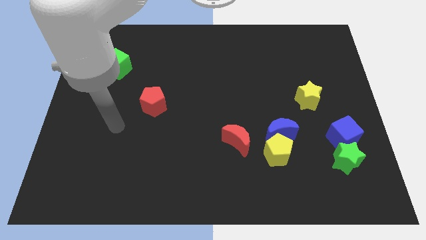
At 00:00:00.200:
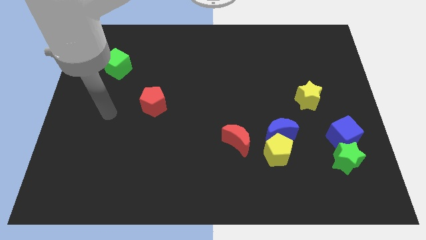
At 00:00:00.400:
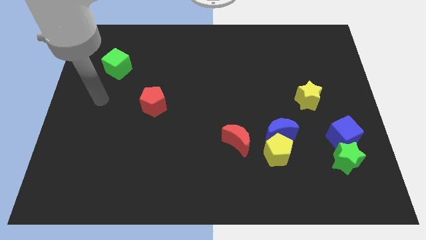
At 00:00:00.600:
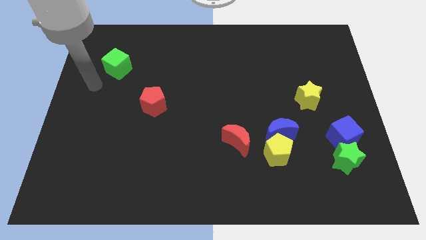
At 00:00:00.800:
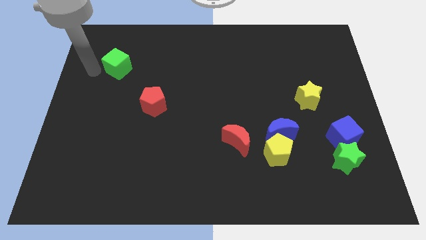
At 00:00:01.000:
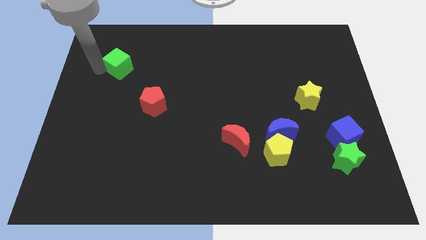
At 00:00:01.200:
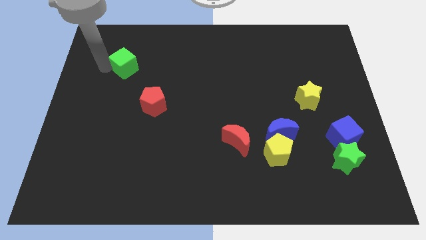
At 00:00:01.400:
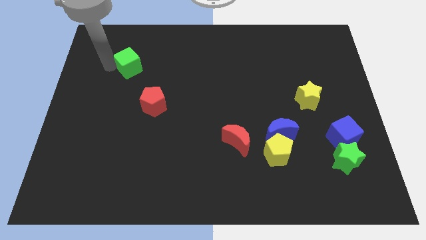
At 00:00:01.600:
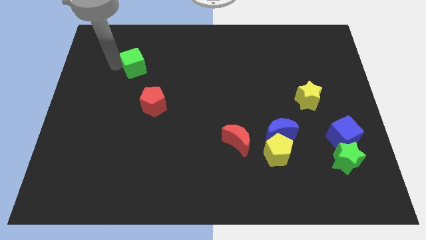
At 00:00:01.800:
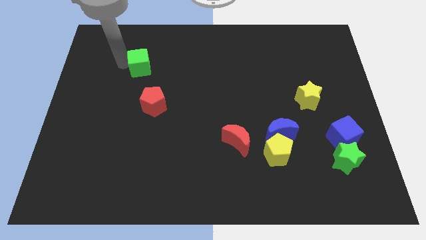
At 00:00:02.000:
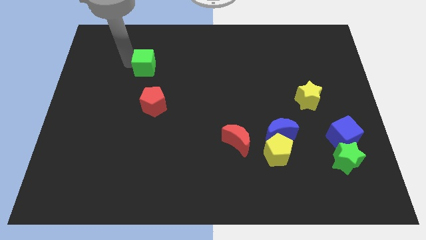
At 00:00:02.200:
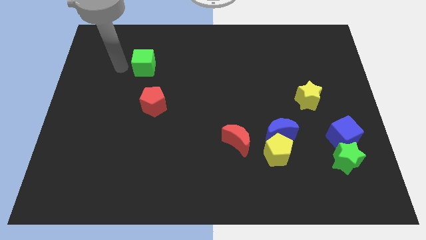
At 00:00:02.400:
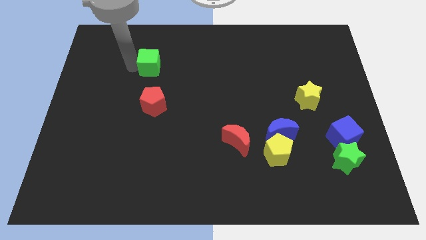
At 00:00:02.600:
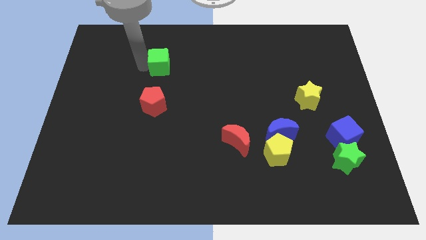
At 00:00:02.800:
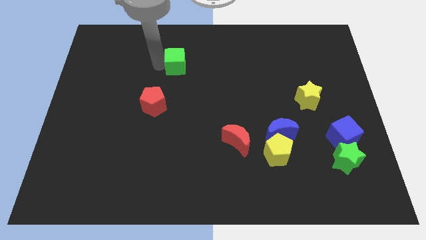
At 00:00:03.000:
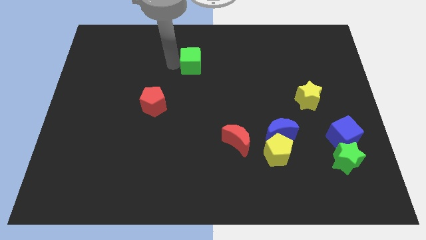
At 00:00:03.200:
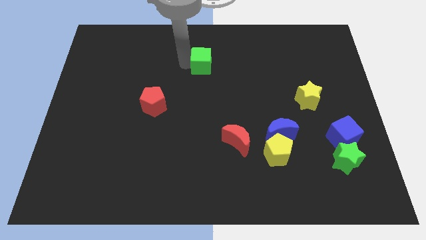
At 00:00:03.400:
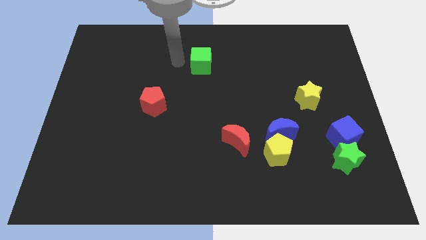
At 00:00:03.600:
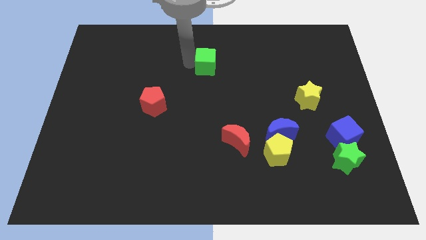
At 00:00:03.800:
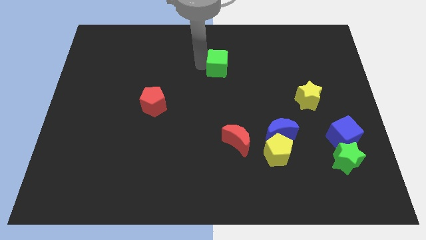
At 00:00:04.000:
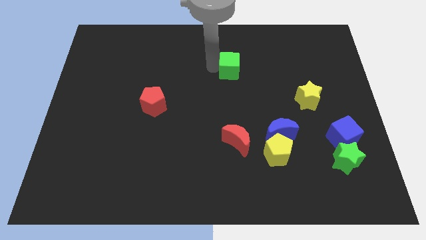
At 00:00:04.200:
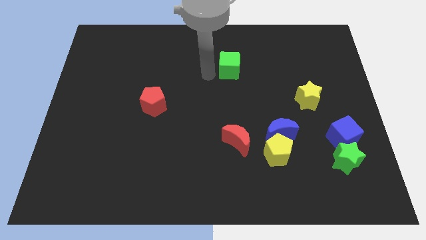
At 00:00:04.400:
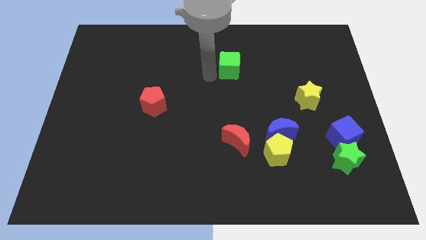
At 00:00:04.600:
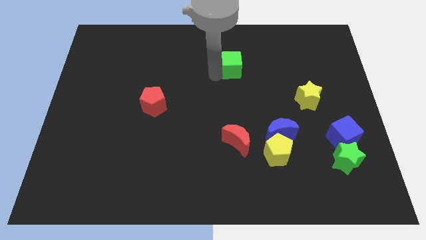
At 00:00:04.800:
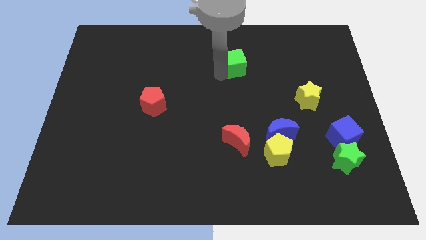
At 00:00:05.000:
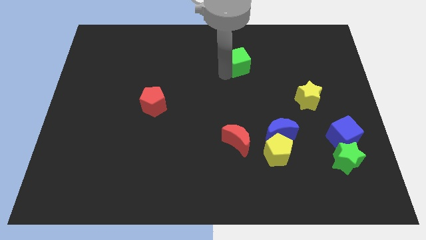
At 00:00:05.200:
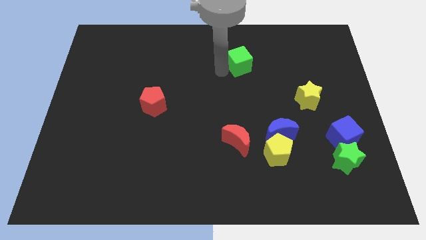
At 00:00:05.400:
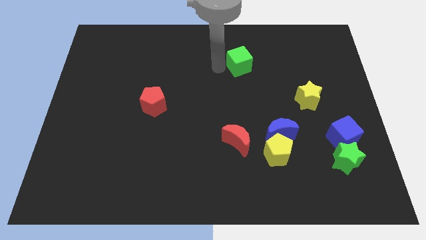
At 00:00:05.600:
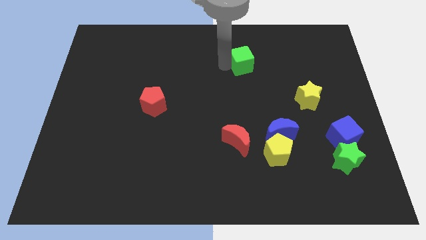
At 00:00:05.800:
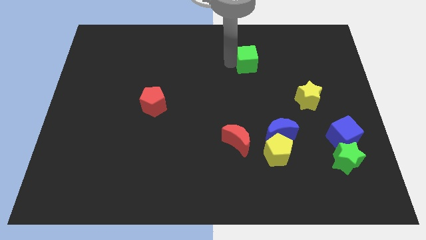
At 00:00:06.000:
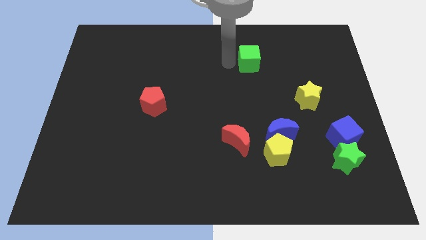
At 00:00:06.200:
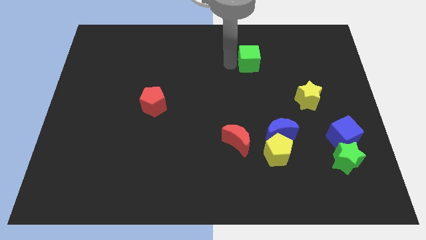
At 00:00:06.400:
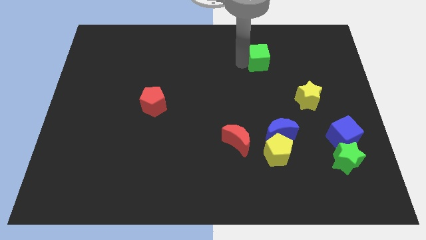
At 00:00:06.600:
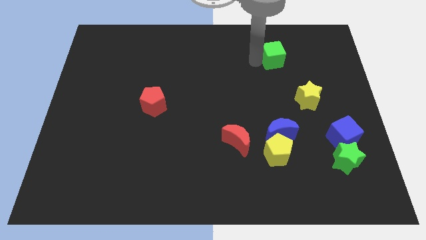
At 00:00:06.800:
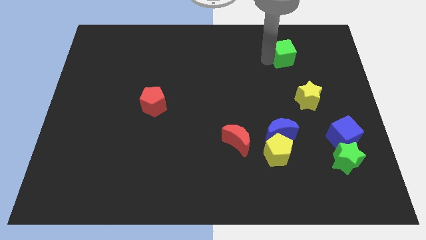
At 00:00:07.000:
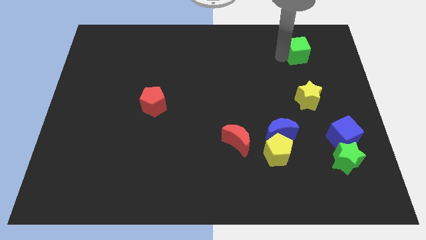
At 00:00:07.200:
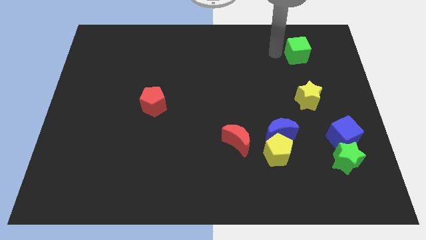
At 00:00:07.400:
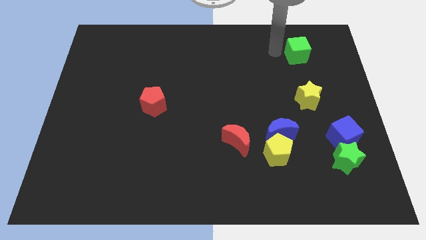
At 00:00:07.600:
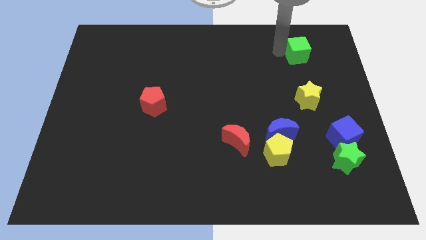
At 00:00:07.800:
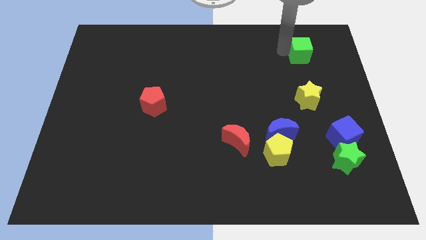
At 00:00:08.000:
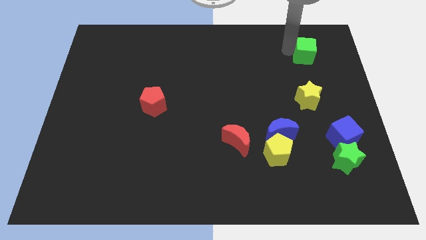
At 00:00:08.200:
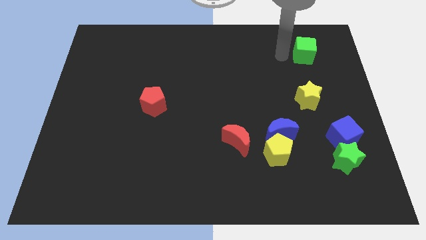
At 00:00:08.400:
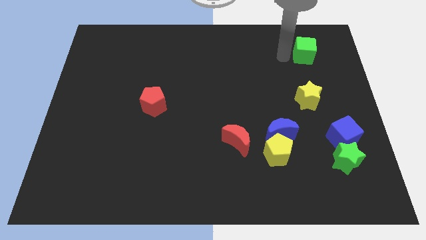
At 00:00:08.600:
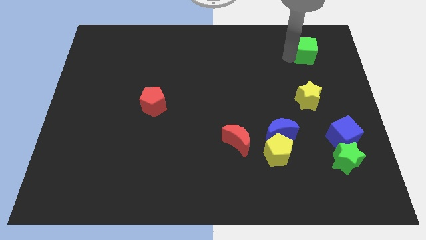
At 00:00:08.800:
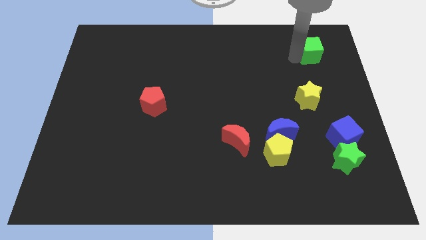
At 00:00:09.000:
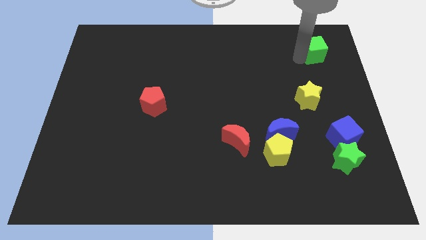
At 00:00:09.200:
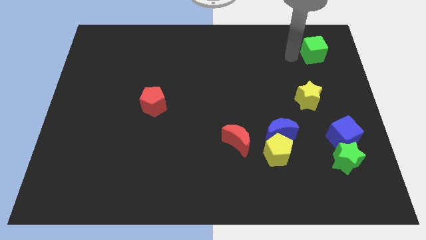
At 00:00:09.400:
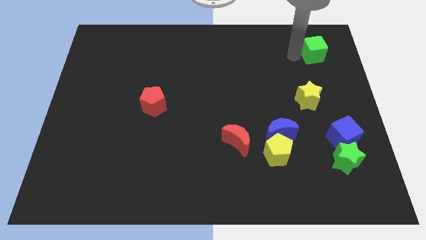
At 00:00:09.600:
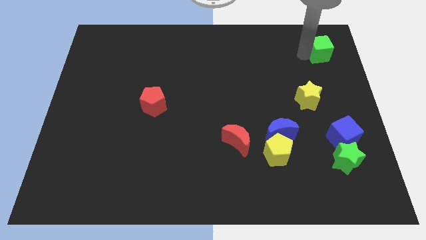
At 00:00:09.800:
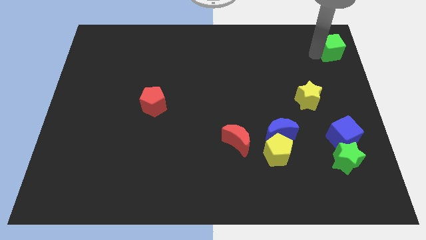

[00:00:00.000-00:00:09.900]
move the green cube to the top right of the board

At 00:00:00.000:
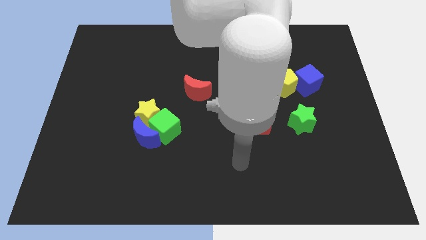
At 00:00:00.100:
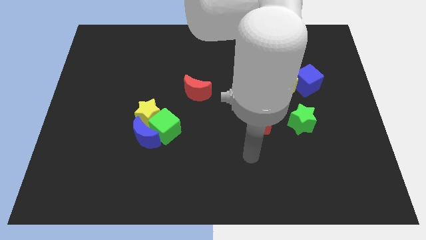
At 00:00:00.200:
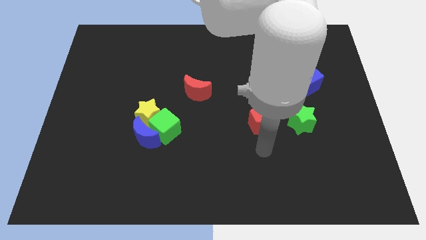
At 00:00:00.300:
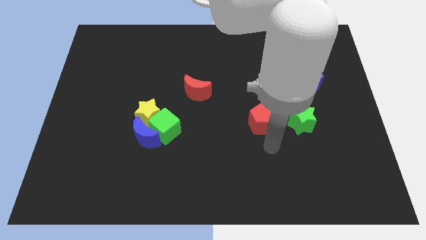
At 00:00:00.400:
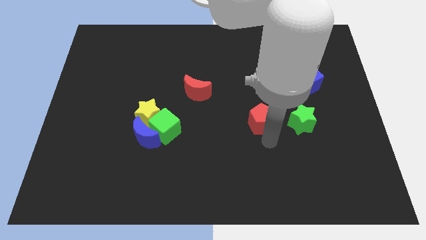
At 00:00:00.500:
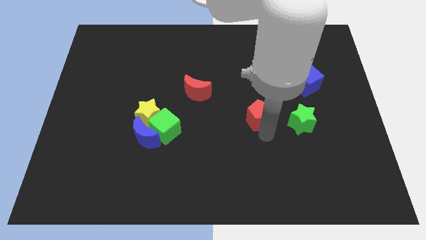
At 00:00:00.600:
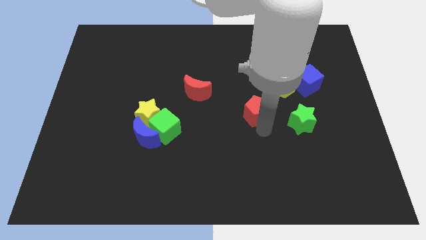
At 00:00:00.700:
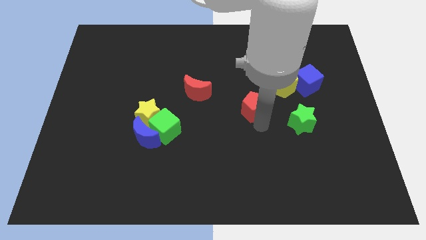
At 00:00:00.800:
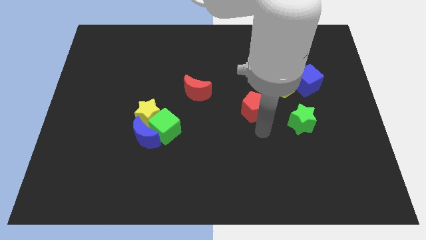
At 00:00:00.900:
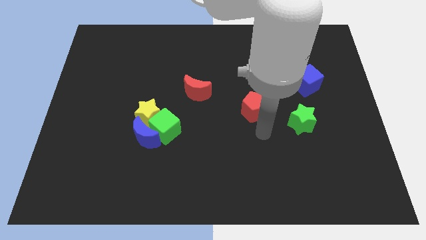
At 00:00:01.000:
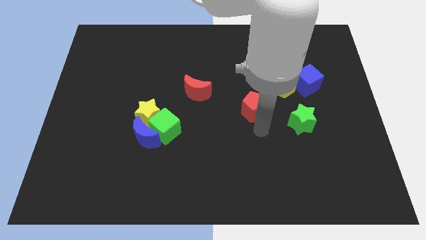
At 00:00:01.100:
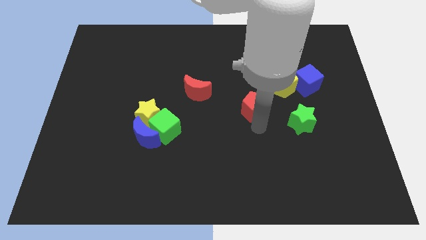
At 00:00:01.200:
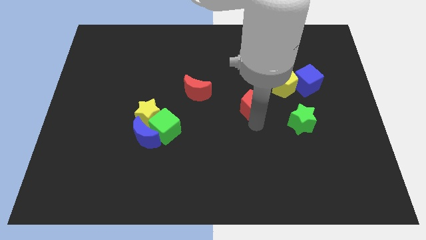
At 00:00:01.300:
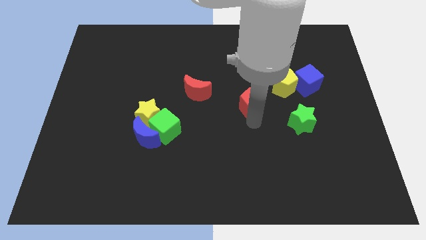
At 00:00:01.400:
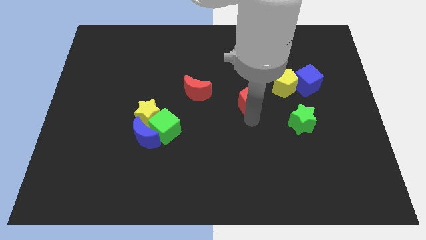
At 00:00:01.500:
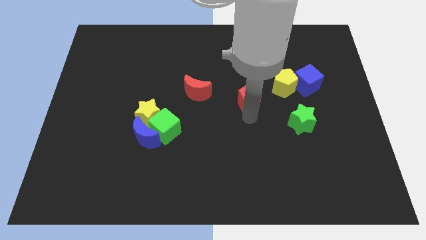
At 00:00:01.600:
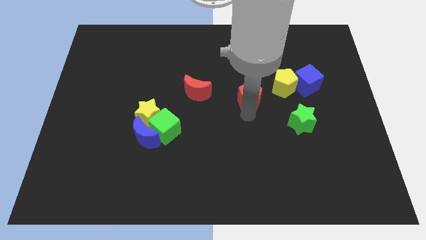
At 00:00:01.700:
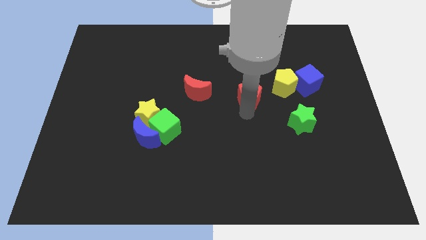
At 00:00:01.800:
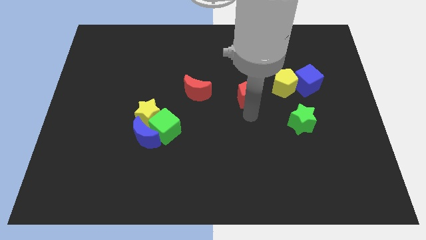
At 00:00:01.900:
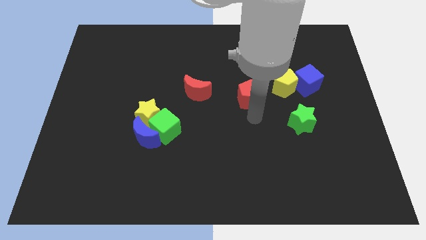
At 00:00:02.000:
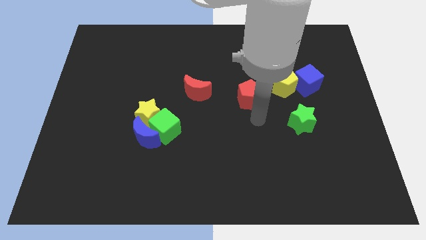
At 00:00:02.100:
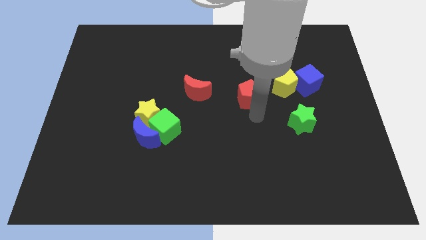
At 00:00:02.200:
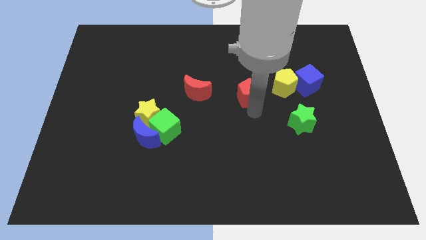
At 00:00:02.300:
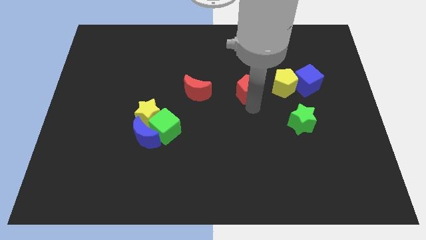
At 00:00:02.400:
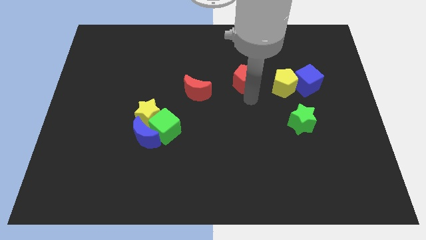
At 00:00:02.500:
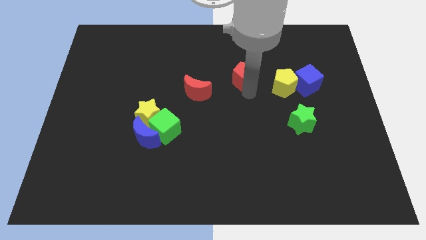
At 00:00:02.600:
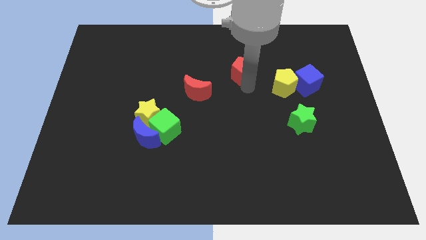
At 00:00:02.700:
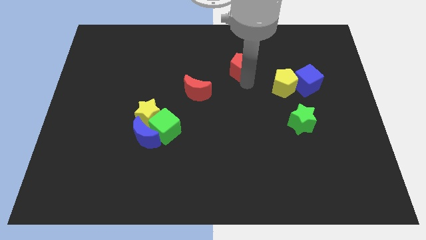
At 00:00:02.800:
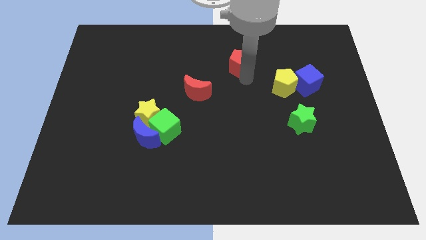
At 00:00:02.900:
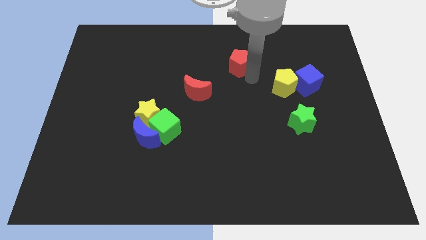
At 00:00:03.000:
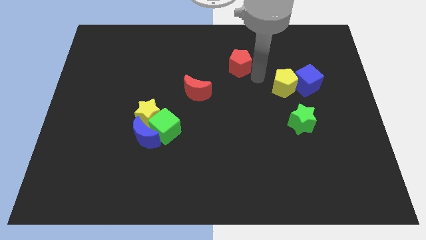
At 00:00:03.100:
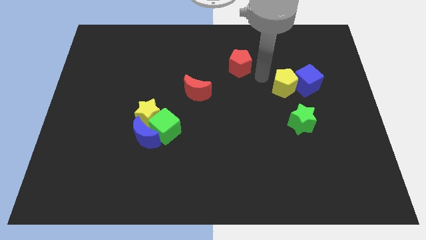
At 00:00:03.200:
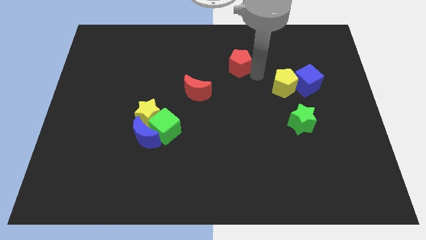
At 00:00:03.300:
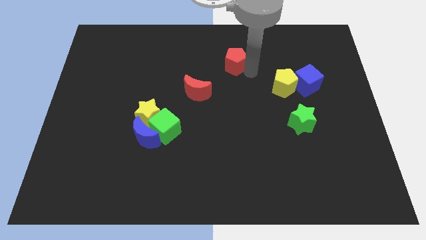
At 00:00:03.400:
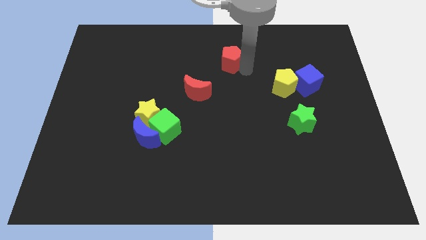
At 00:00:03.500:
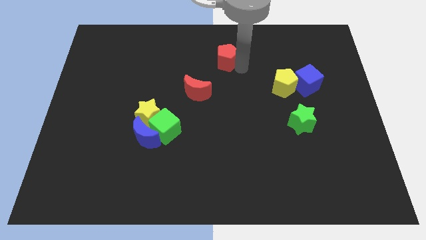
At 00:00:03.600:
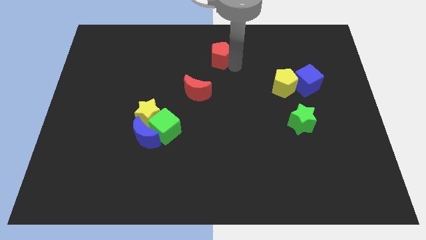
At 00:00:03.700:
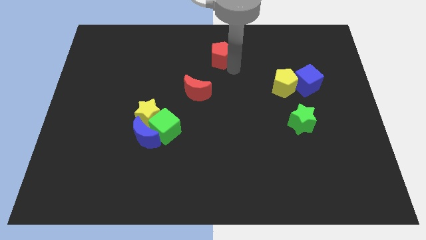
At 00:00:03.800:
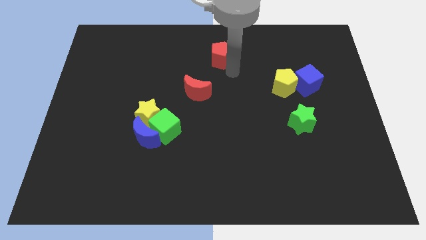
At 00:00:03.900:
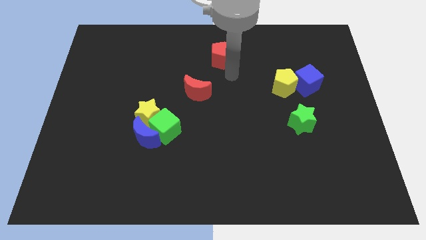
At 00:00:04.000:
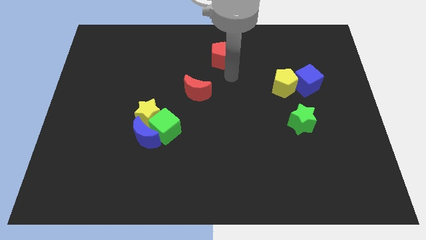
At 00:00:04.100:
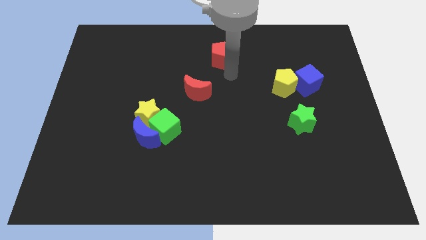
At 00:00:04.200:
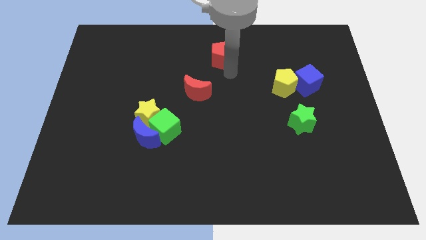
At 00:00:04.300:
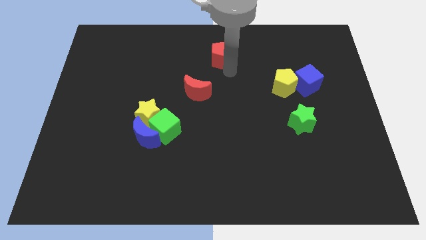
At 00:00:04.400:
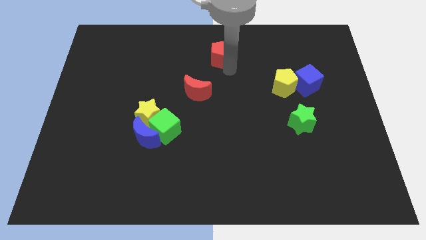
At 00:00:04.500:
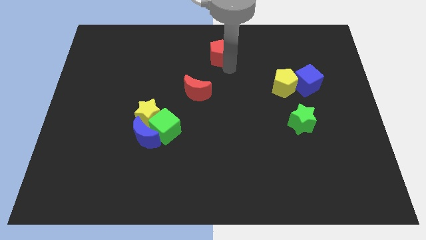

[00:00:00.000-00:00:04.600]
push the red pentagon to the towards your base
